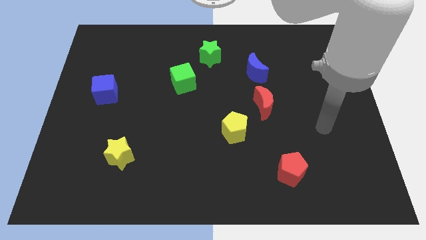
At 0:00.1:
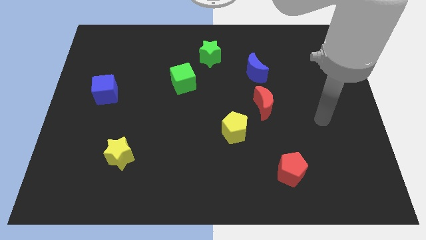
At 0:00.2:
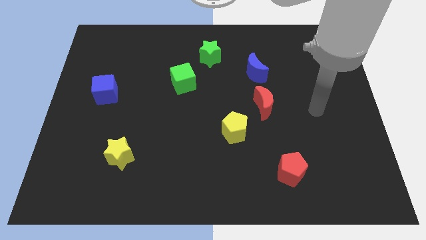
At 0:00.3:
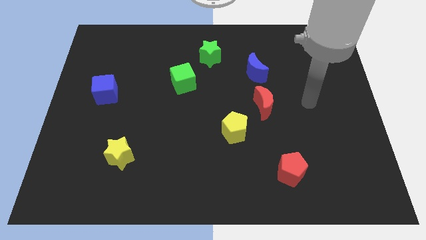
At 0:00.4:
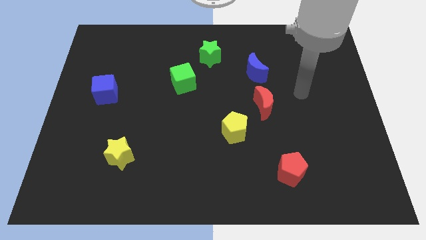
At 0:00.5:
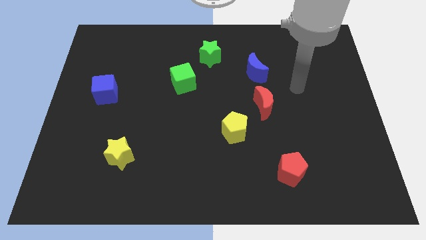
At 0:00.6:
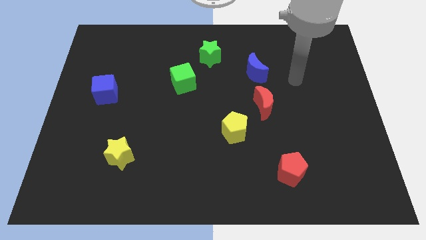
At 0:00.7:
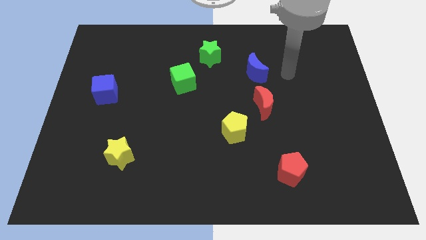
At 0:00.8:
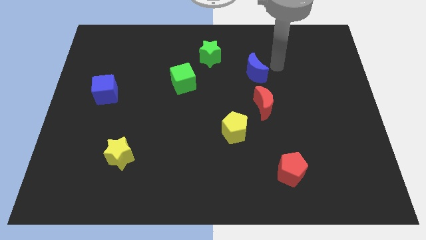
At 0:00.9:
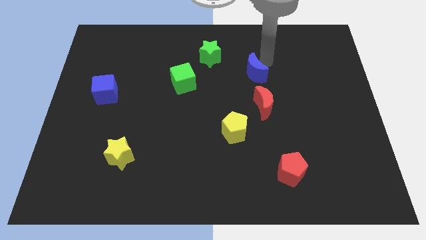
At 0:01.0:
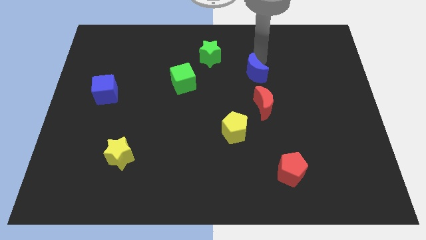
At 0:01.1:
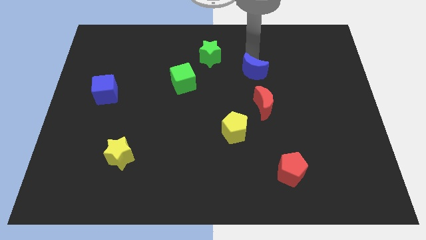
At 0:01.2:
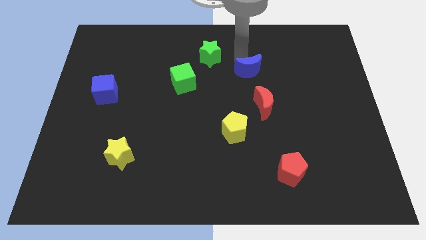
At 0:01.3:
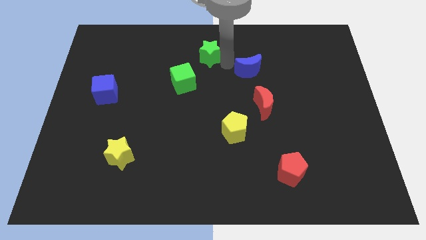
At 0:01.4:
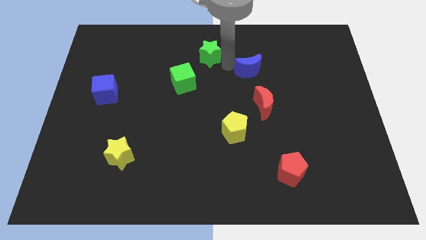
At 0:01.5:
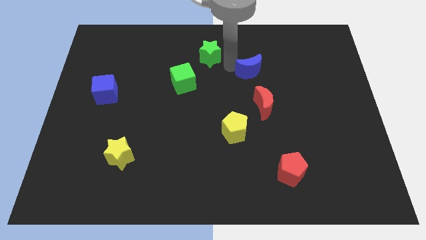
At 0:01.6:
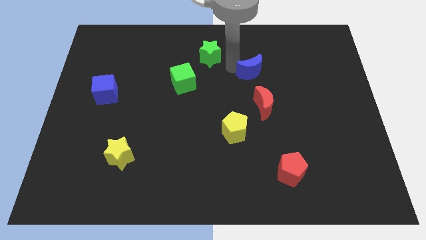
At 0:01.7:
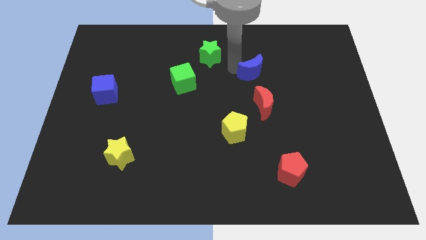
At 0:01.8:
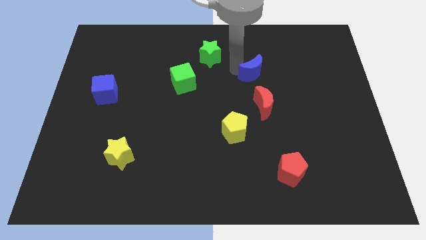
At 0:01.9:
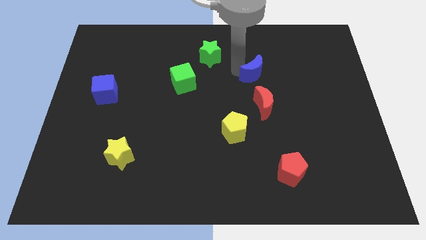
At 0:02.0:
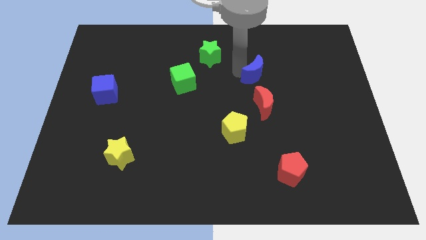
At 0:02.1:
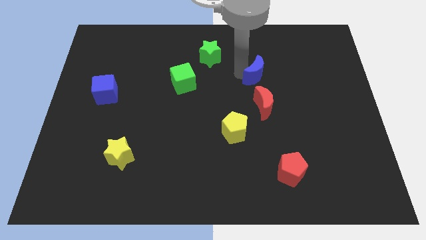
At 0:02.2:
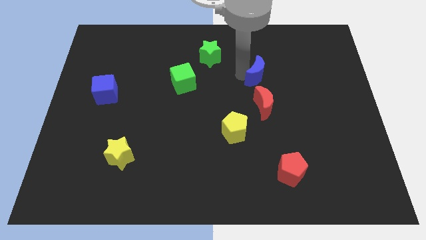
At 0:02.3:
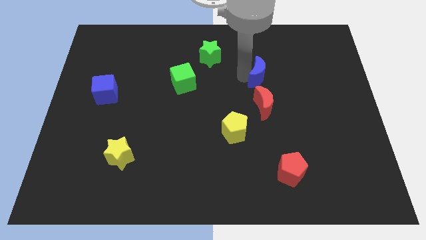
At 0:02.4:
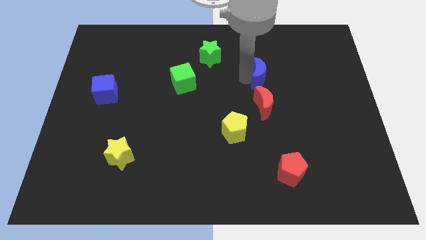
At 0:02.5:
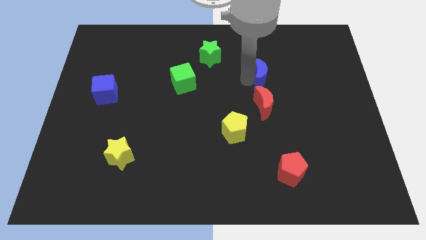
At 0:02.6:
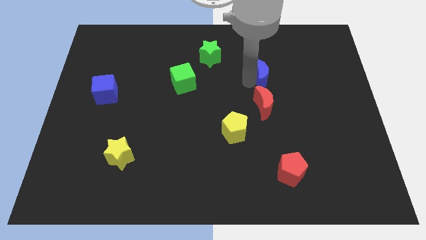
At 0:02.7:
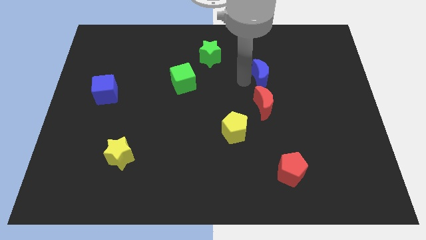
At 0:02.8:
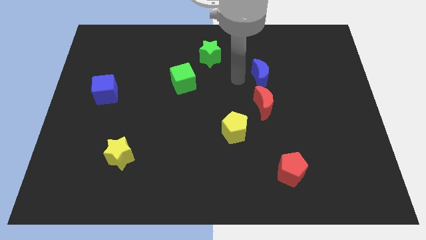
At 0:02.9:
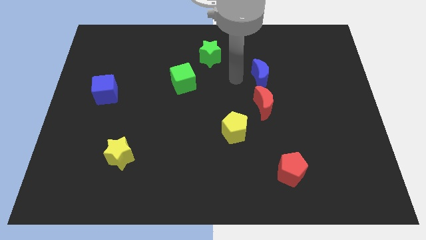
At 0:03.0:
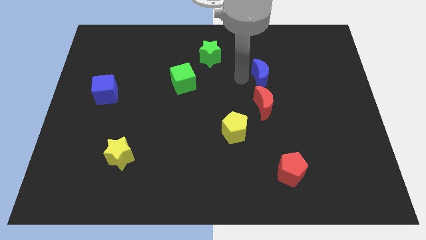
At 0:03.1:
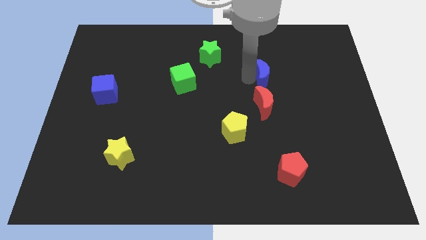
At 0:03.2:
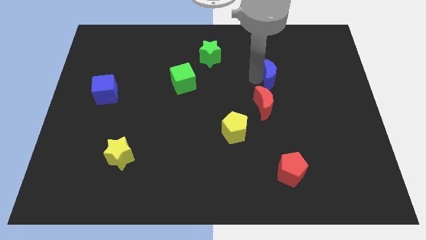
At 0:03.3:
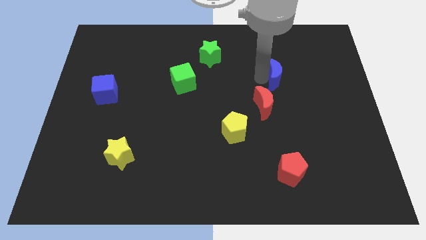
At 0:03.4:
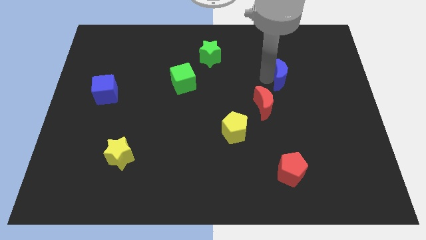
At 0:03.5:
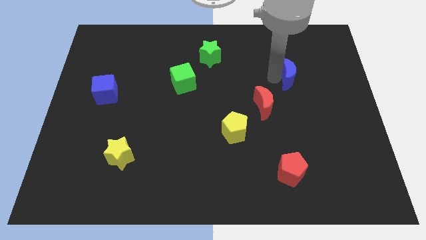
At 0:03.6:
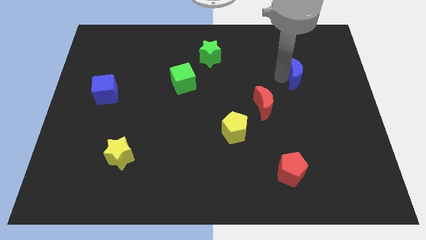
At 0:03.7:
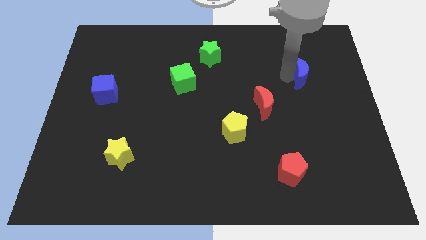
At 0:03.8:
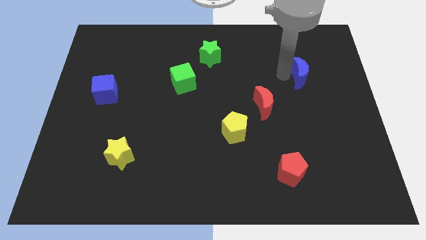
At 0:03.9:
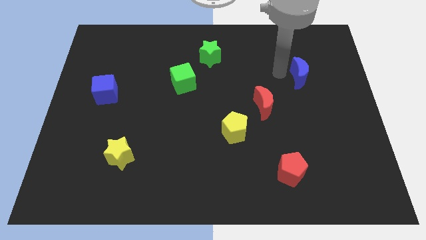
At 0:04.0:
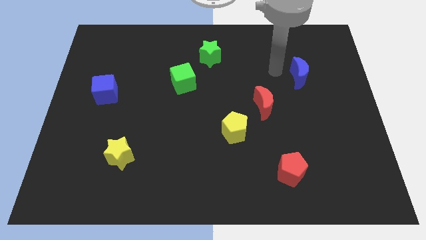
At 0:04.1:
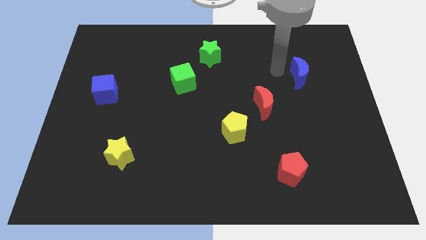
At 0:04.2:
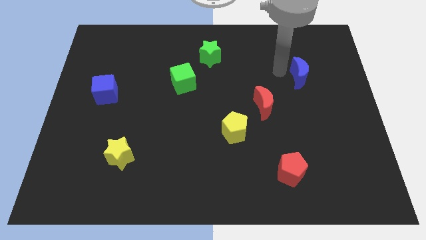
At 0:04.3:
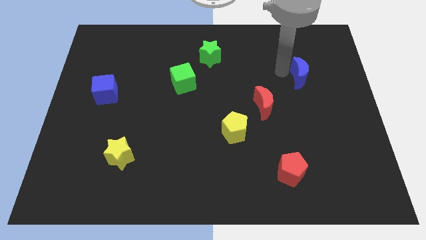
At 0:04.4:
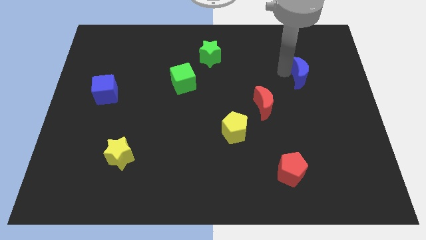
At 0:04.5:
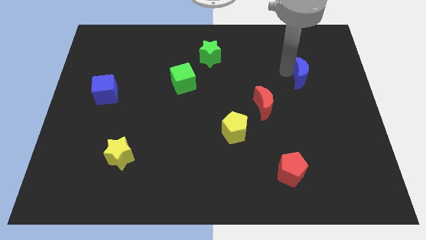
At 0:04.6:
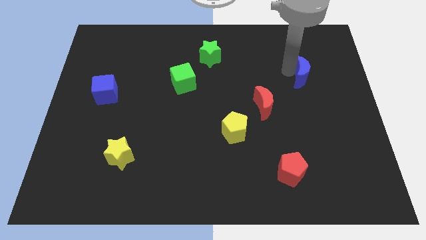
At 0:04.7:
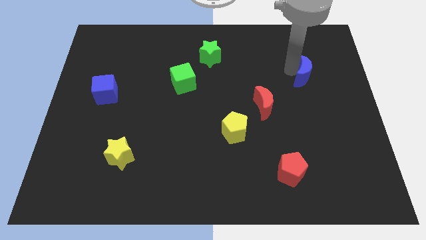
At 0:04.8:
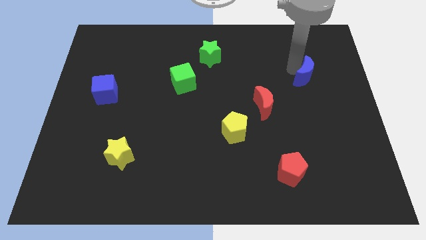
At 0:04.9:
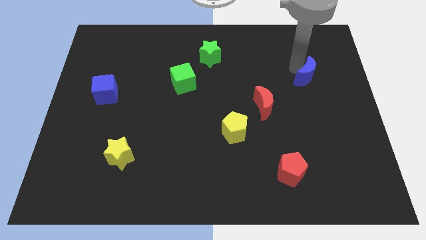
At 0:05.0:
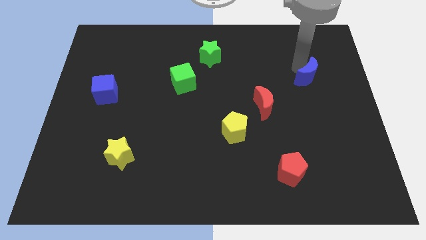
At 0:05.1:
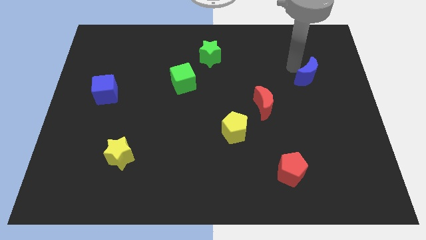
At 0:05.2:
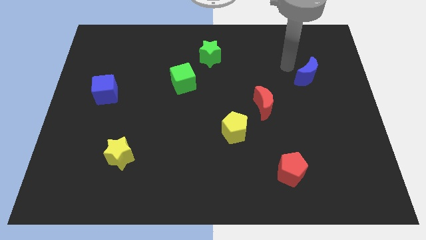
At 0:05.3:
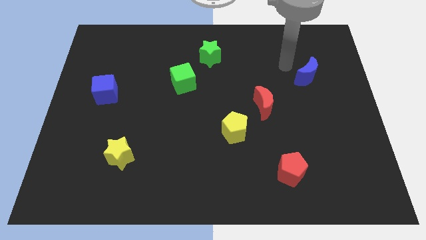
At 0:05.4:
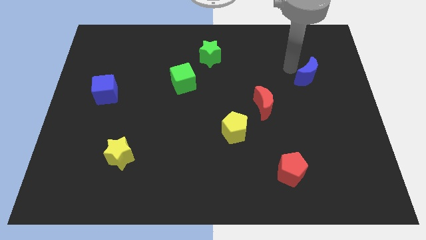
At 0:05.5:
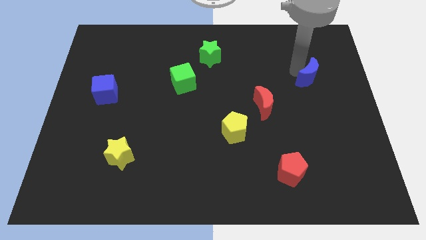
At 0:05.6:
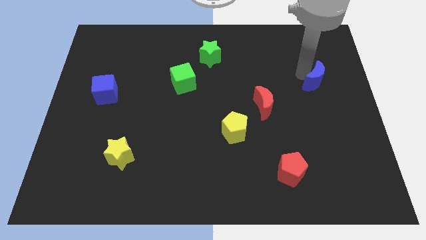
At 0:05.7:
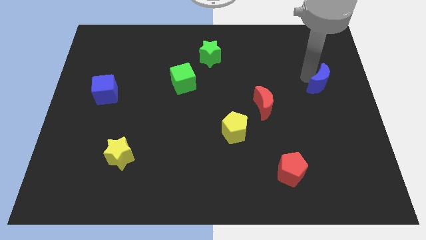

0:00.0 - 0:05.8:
move the blue moon to the right side

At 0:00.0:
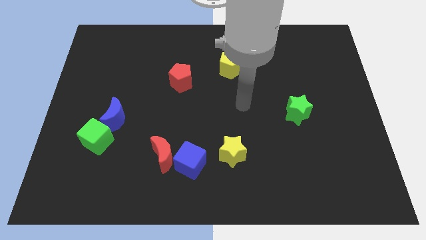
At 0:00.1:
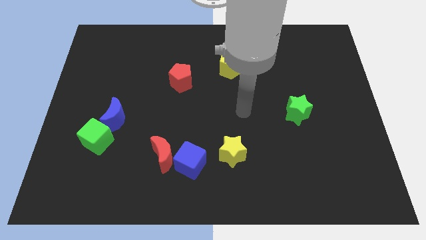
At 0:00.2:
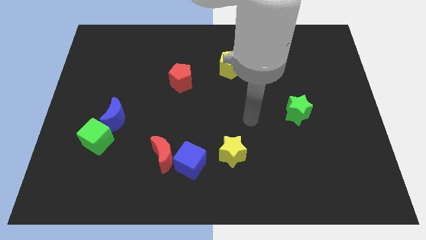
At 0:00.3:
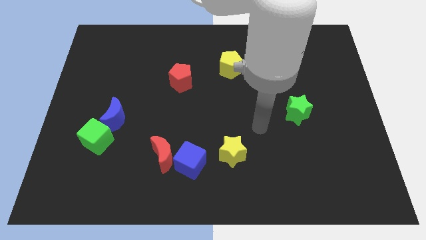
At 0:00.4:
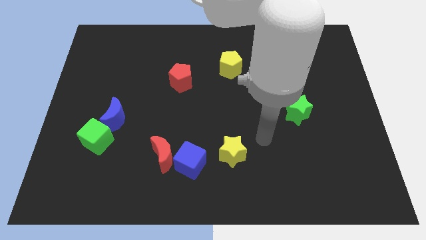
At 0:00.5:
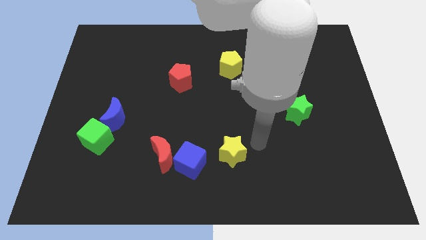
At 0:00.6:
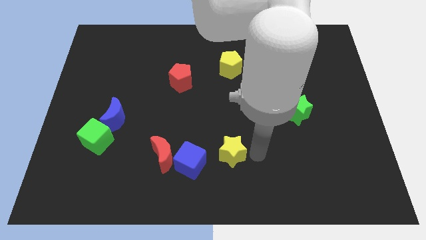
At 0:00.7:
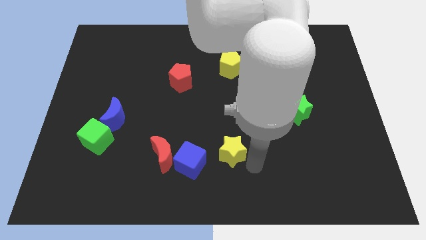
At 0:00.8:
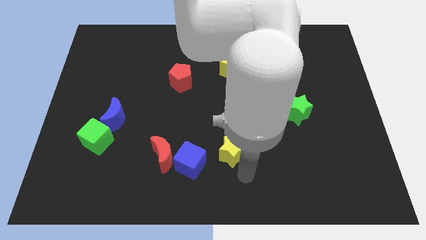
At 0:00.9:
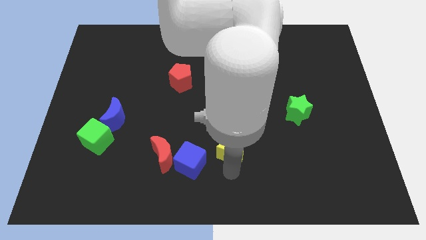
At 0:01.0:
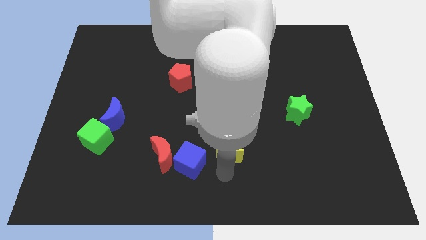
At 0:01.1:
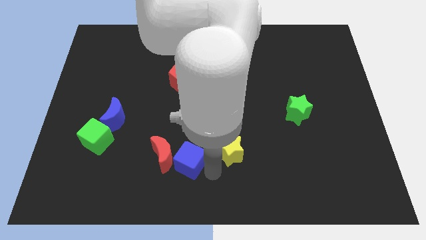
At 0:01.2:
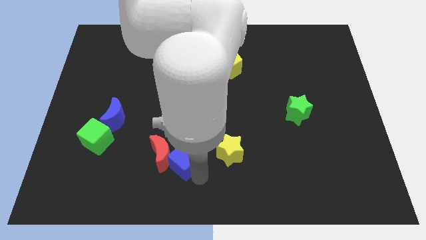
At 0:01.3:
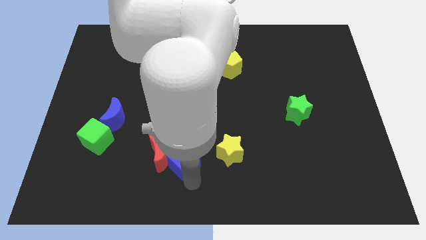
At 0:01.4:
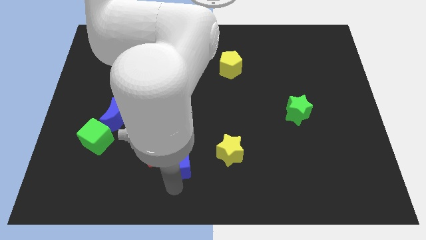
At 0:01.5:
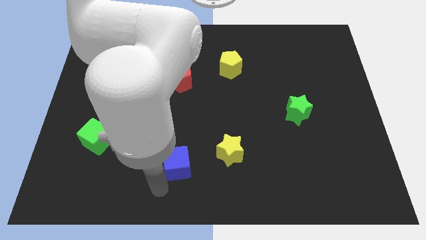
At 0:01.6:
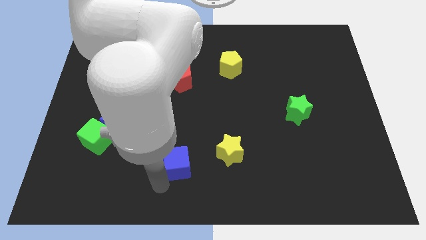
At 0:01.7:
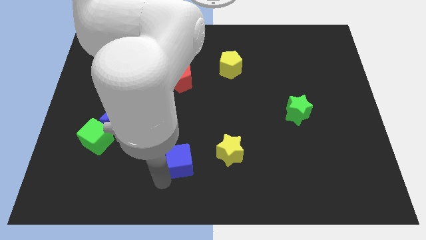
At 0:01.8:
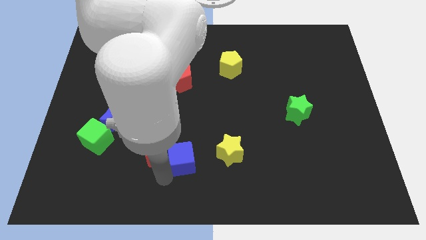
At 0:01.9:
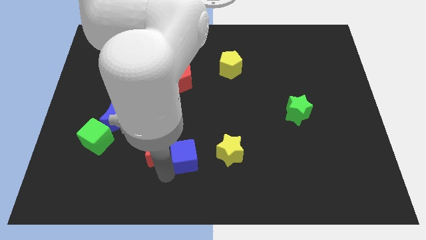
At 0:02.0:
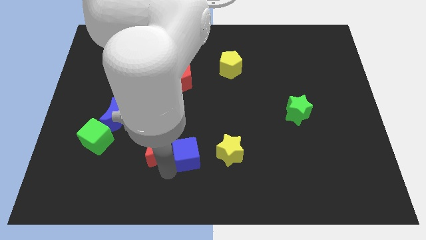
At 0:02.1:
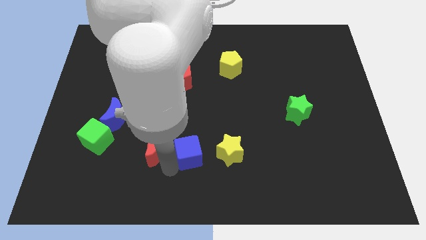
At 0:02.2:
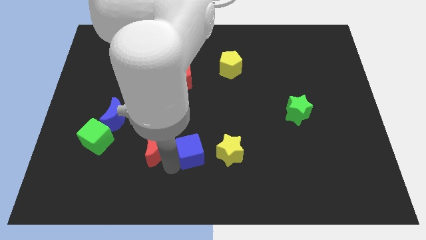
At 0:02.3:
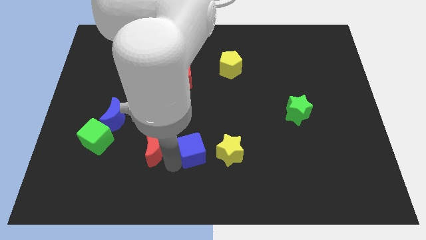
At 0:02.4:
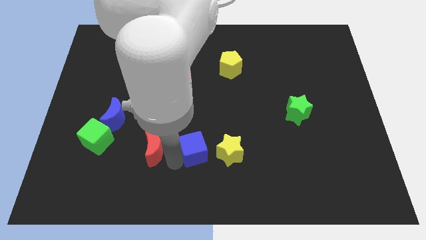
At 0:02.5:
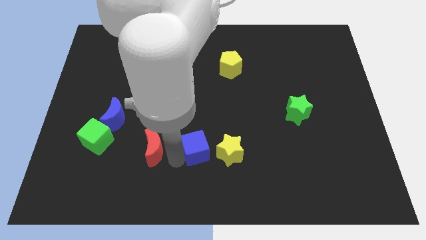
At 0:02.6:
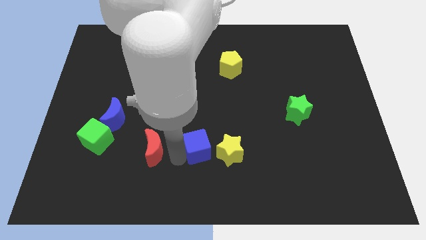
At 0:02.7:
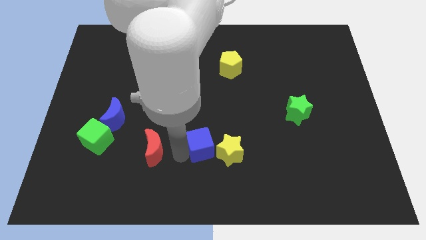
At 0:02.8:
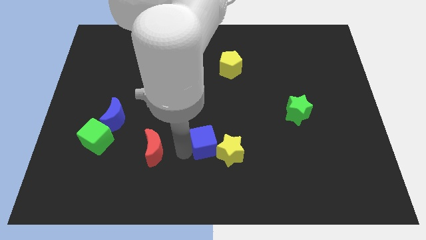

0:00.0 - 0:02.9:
slide the blue cube to the middle
